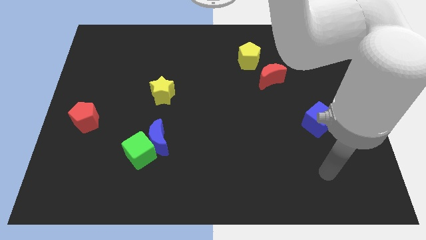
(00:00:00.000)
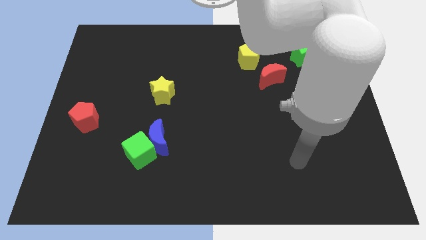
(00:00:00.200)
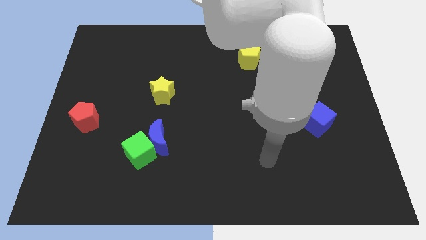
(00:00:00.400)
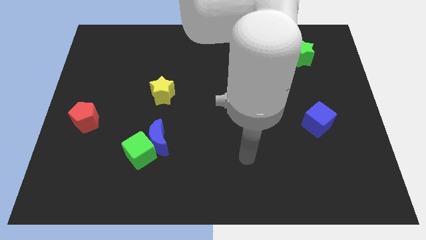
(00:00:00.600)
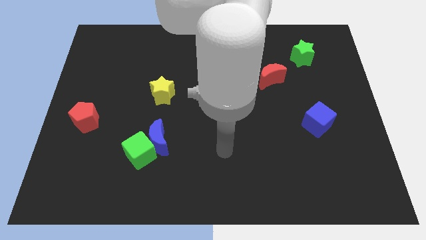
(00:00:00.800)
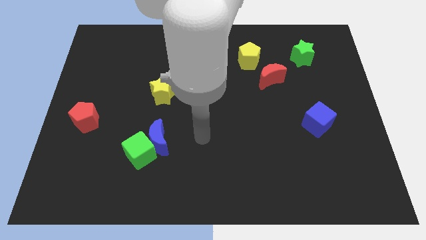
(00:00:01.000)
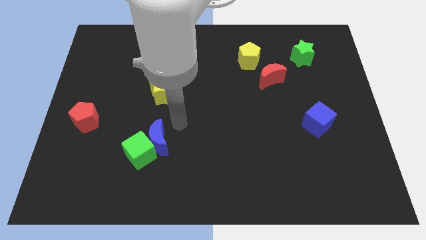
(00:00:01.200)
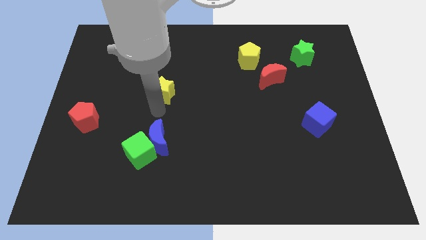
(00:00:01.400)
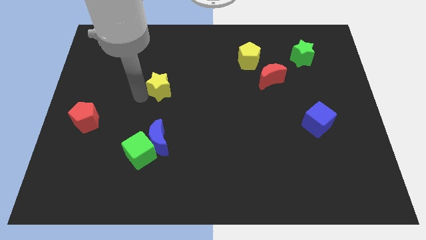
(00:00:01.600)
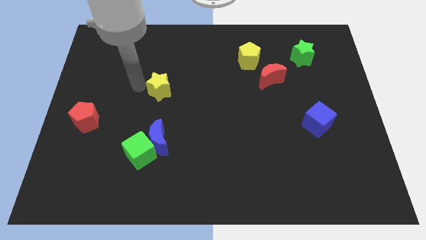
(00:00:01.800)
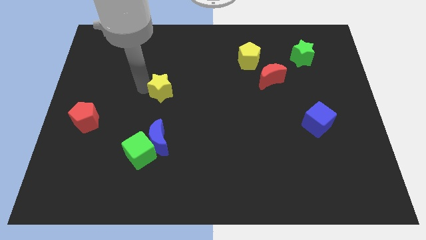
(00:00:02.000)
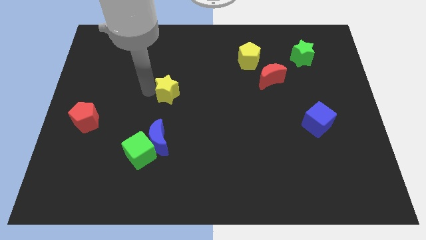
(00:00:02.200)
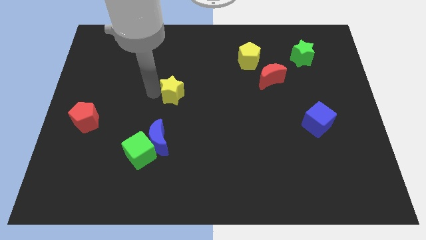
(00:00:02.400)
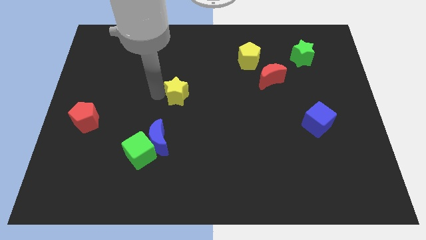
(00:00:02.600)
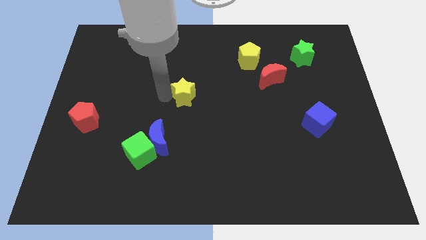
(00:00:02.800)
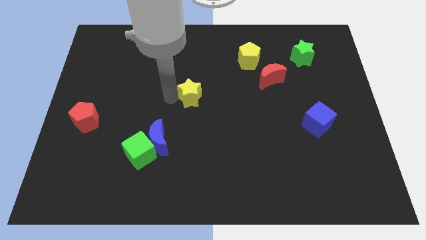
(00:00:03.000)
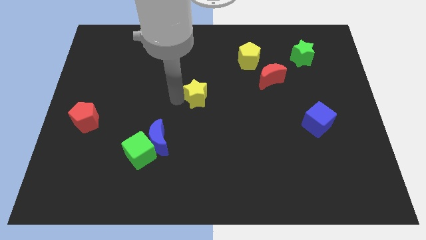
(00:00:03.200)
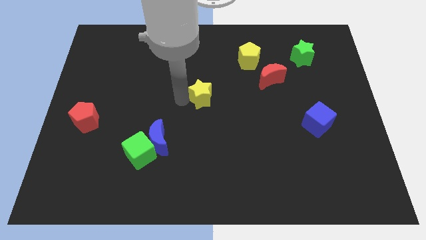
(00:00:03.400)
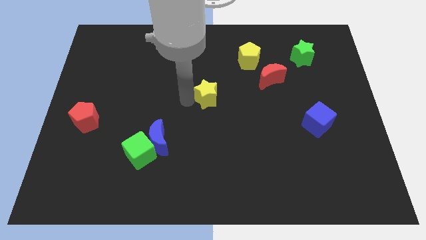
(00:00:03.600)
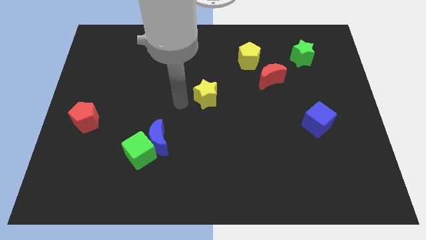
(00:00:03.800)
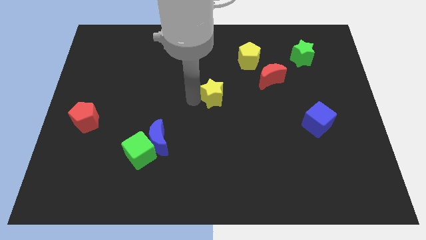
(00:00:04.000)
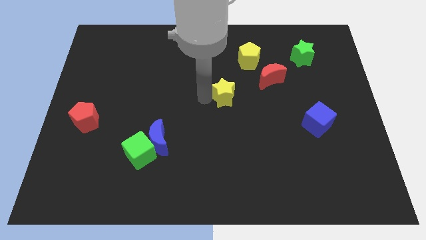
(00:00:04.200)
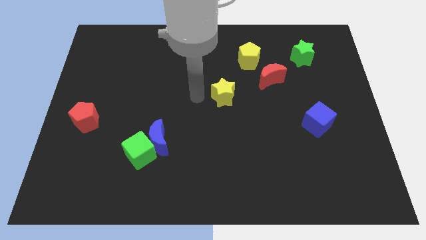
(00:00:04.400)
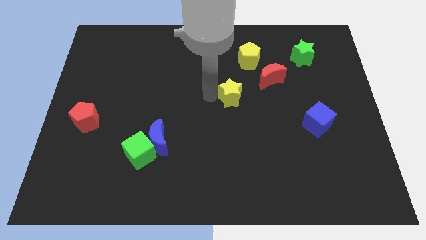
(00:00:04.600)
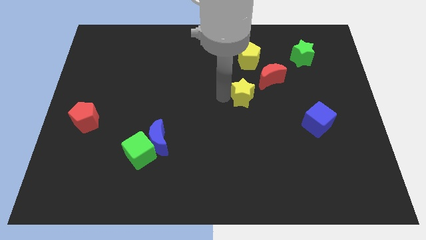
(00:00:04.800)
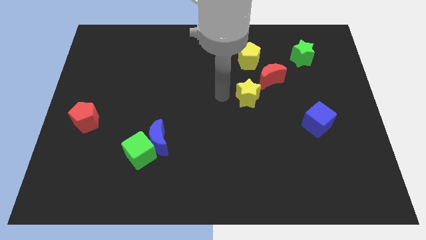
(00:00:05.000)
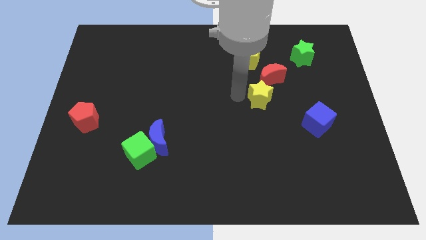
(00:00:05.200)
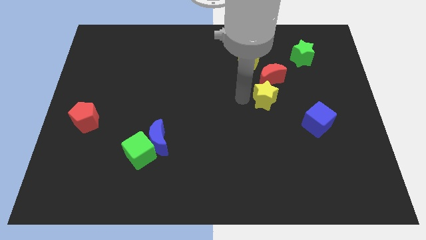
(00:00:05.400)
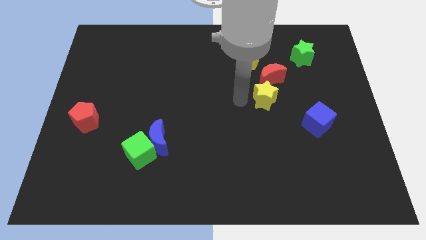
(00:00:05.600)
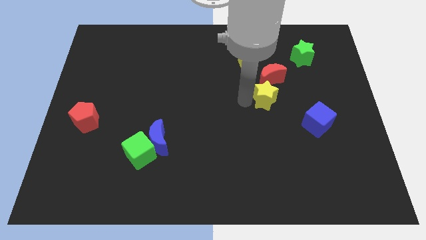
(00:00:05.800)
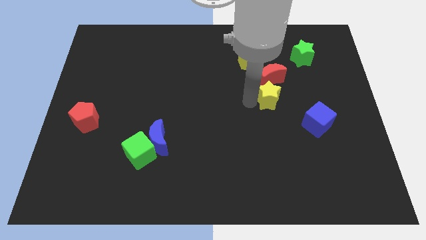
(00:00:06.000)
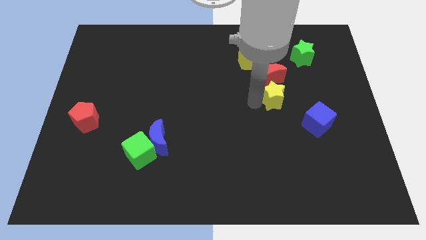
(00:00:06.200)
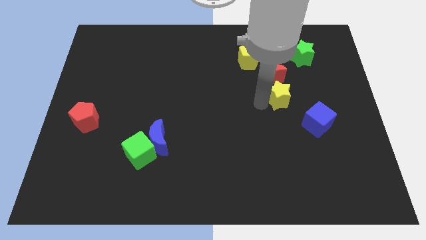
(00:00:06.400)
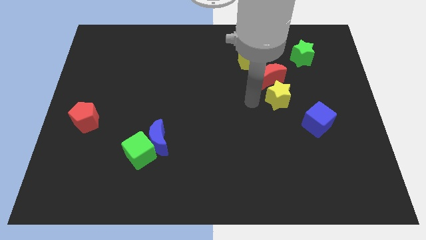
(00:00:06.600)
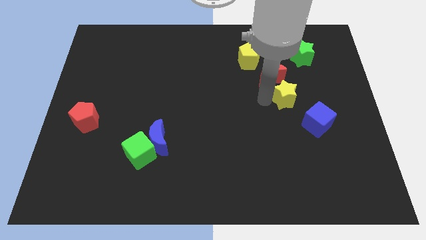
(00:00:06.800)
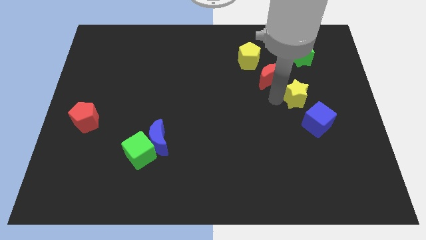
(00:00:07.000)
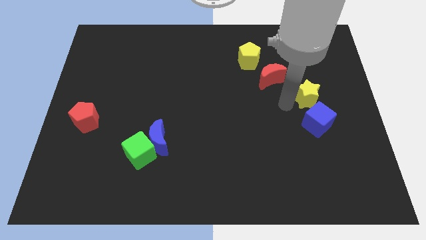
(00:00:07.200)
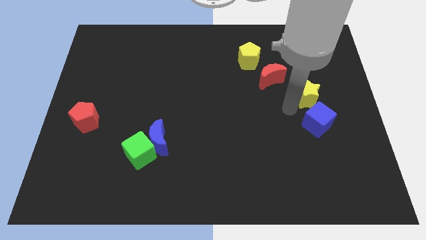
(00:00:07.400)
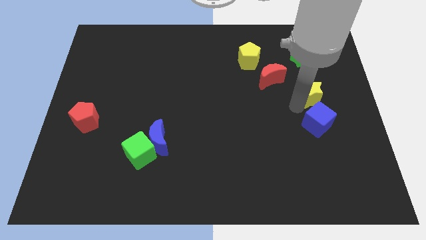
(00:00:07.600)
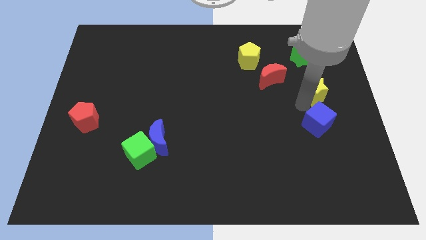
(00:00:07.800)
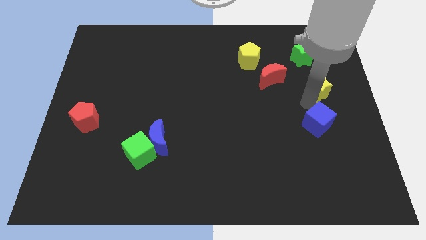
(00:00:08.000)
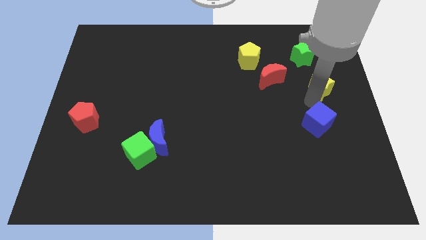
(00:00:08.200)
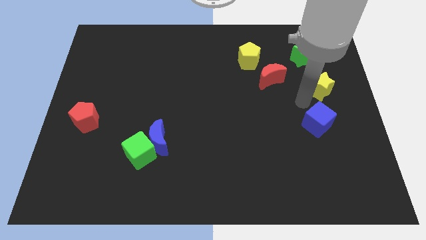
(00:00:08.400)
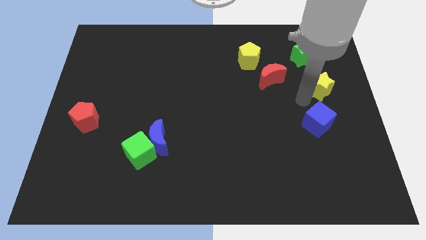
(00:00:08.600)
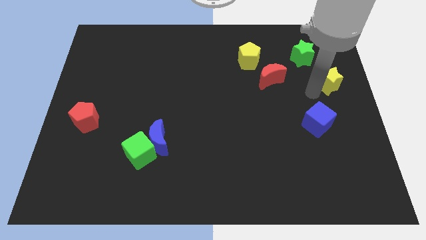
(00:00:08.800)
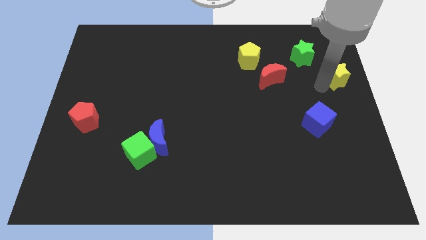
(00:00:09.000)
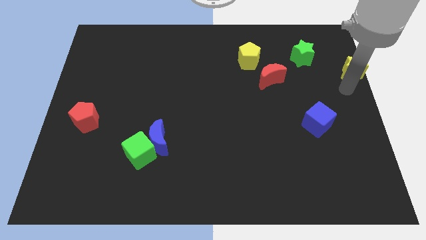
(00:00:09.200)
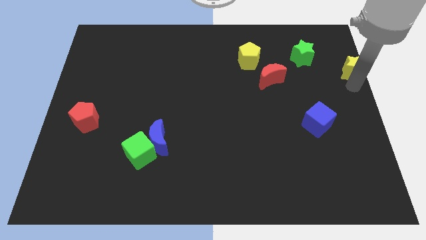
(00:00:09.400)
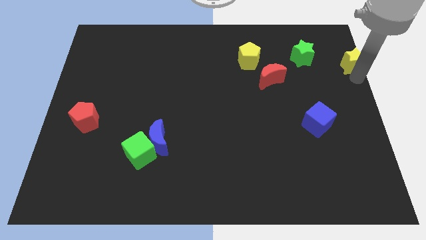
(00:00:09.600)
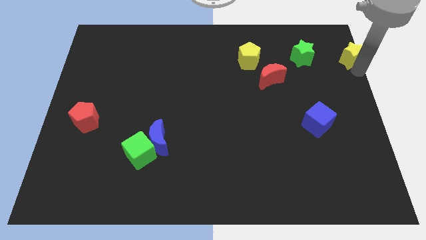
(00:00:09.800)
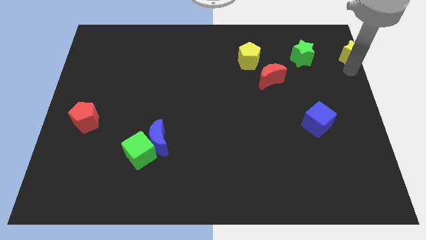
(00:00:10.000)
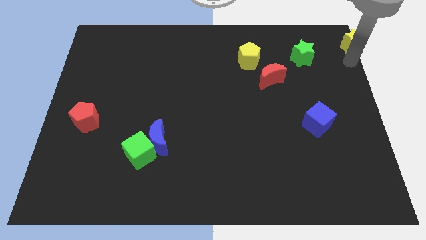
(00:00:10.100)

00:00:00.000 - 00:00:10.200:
push the yellow star to the top right of the board

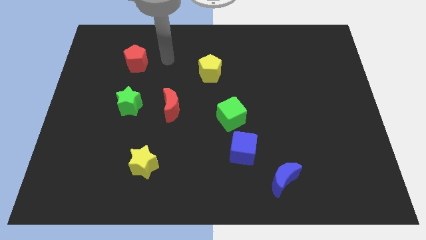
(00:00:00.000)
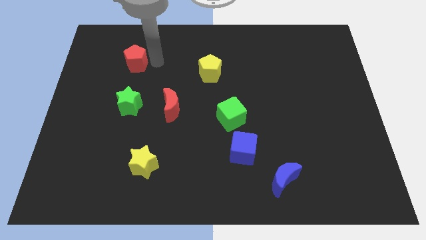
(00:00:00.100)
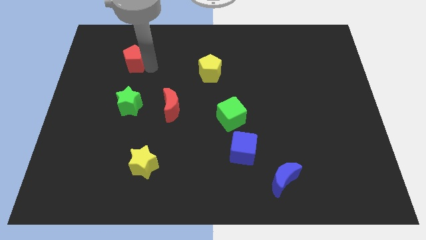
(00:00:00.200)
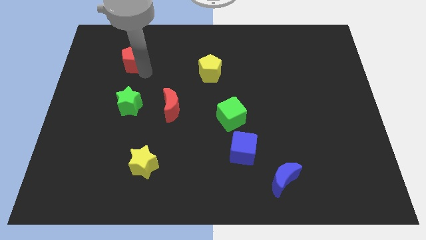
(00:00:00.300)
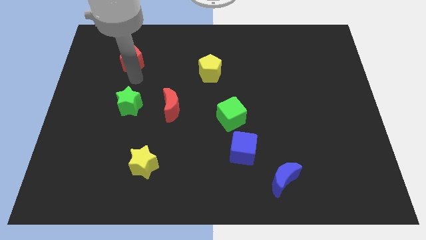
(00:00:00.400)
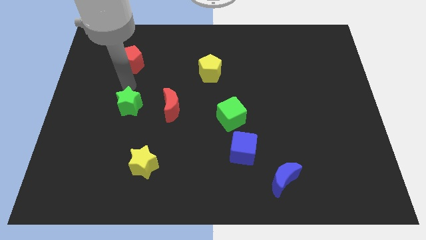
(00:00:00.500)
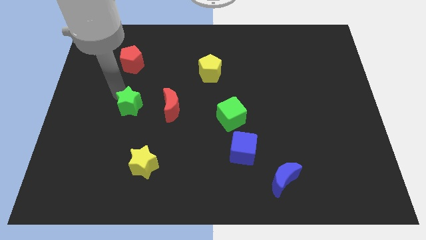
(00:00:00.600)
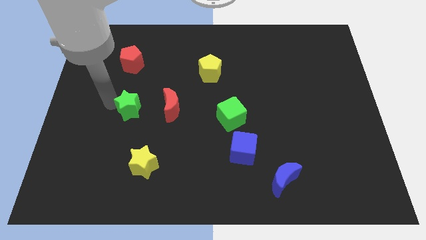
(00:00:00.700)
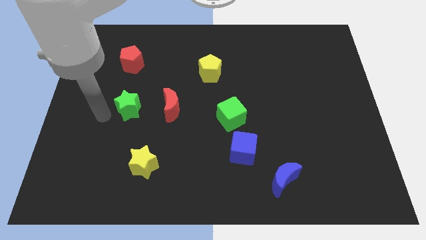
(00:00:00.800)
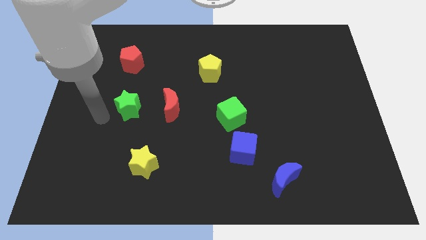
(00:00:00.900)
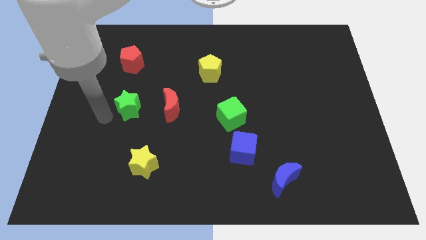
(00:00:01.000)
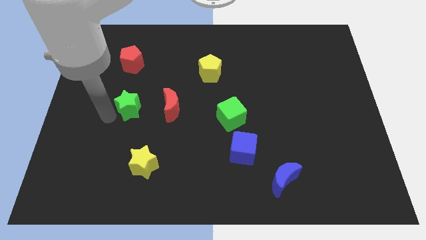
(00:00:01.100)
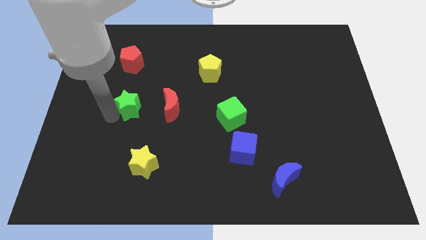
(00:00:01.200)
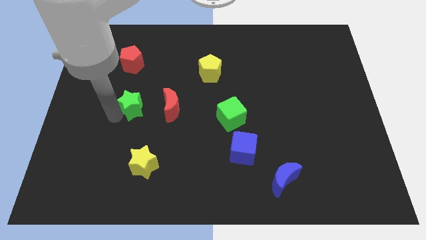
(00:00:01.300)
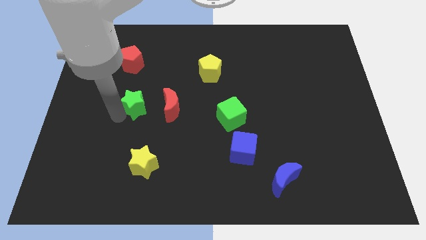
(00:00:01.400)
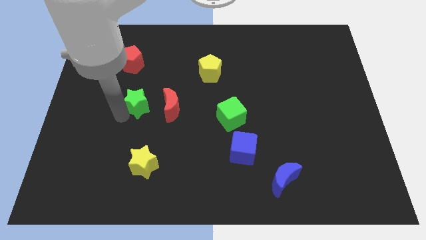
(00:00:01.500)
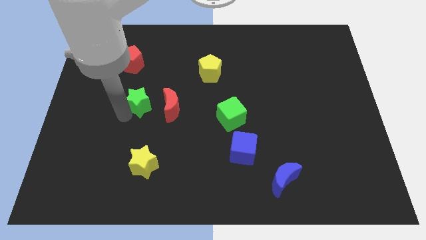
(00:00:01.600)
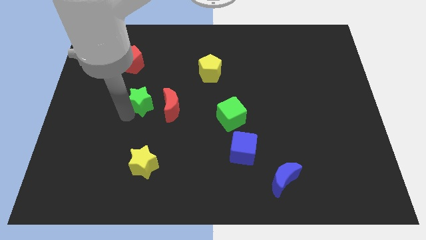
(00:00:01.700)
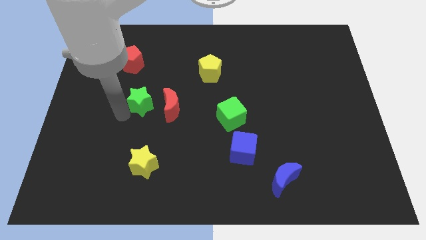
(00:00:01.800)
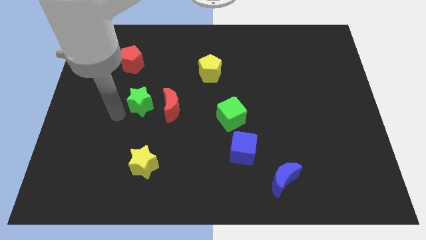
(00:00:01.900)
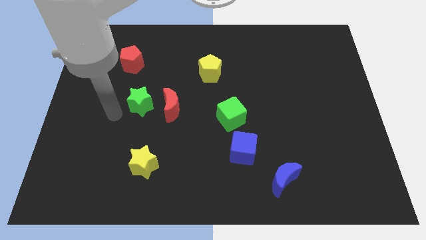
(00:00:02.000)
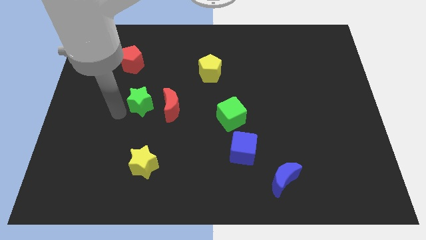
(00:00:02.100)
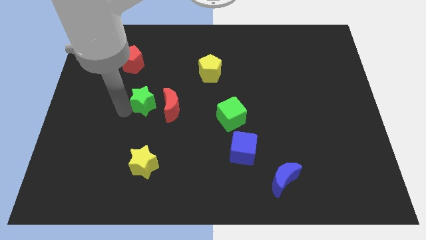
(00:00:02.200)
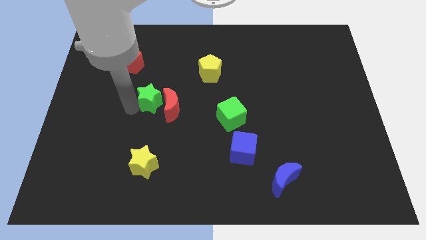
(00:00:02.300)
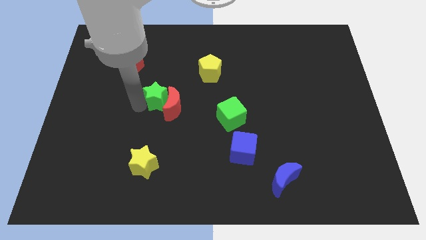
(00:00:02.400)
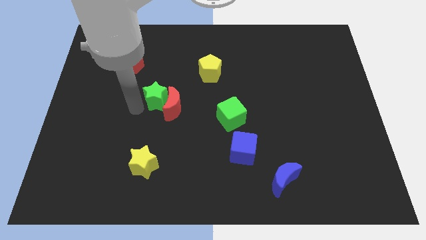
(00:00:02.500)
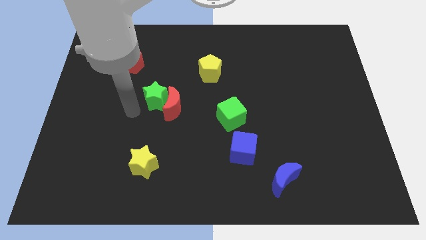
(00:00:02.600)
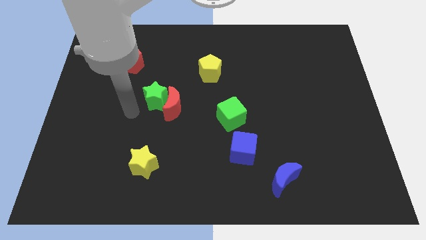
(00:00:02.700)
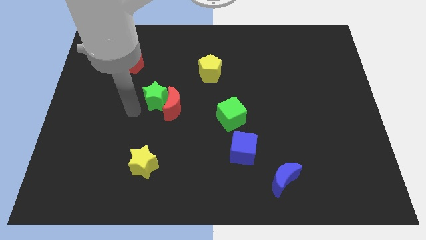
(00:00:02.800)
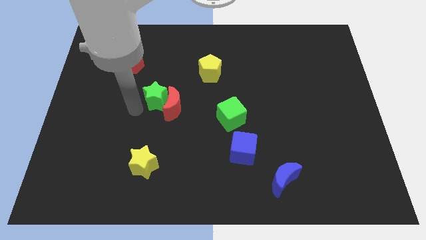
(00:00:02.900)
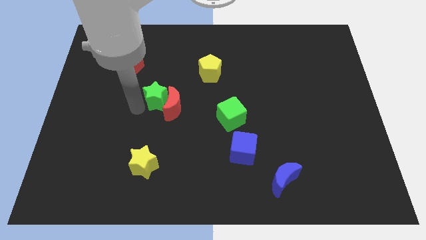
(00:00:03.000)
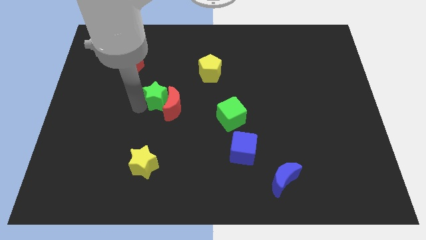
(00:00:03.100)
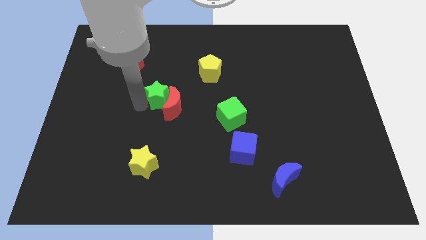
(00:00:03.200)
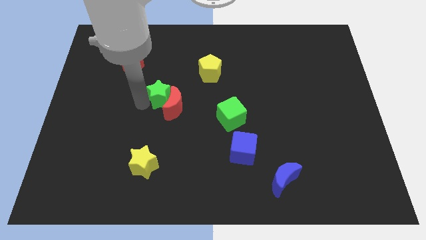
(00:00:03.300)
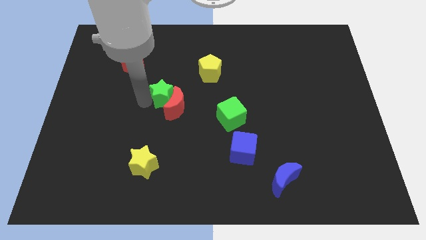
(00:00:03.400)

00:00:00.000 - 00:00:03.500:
push the green star to the middle of the board
